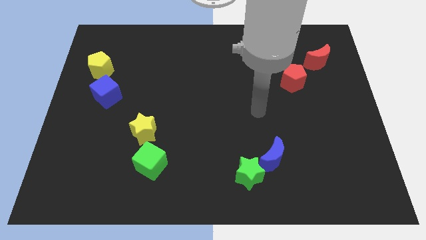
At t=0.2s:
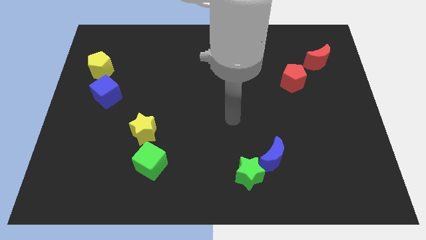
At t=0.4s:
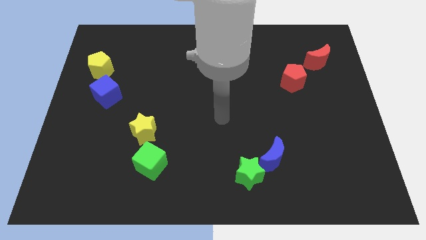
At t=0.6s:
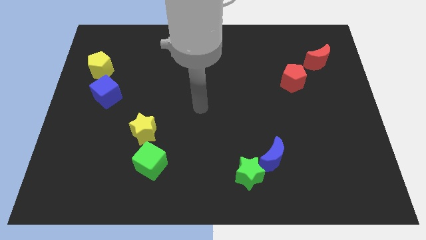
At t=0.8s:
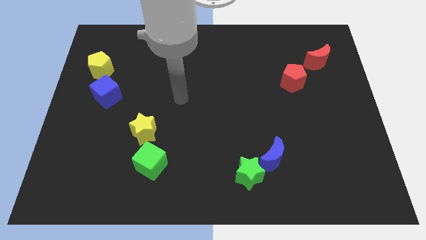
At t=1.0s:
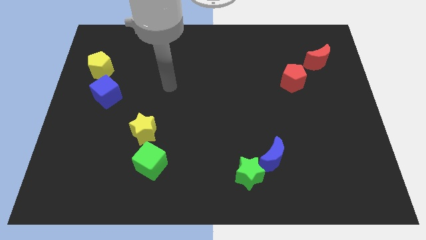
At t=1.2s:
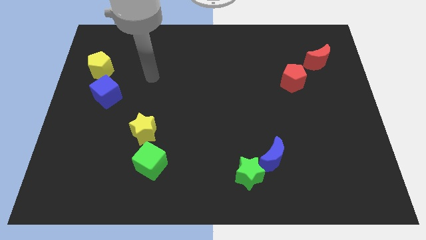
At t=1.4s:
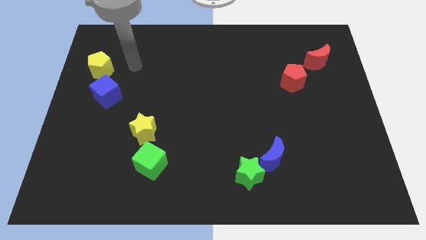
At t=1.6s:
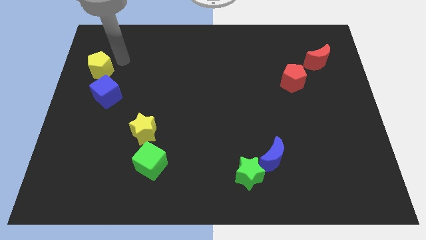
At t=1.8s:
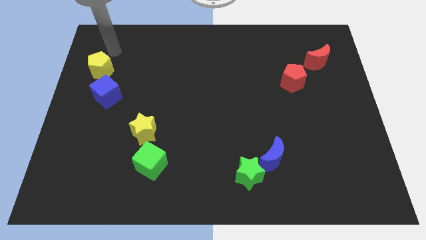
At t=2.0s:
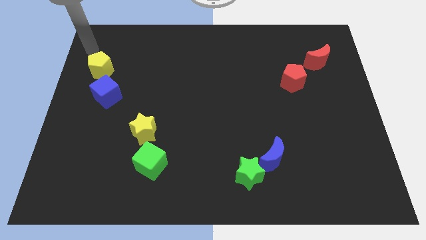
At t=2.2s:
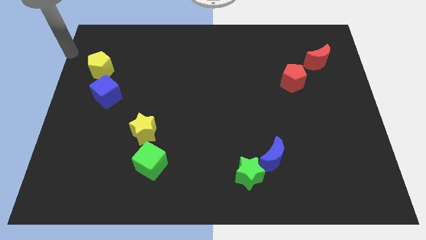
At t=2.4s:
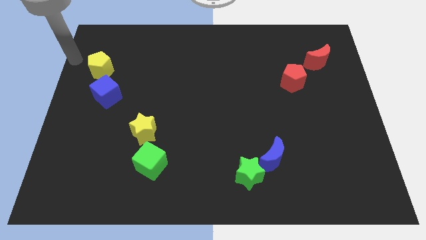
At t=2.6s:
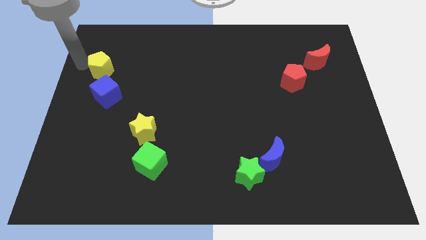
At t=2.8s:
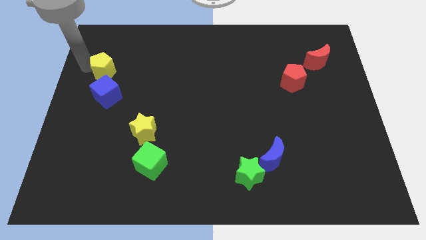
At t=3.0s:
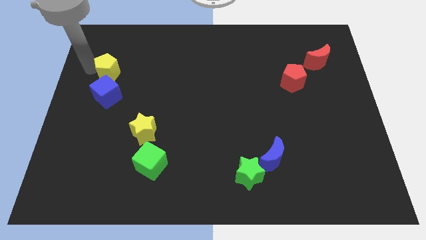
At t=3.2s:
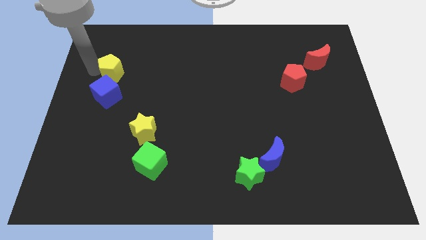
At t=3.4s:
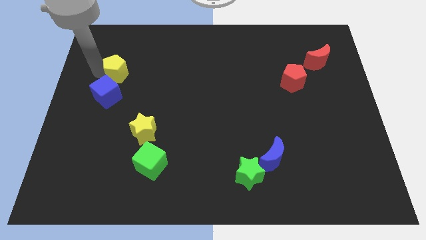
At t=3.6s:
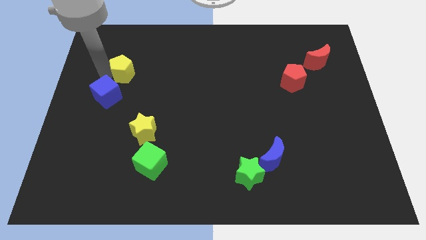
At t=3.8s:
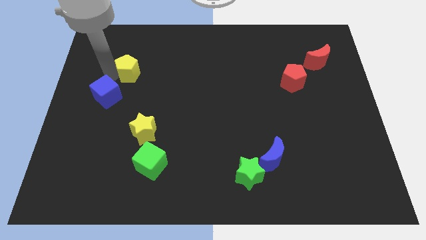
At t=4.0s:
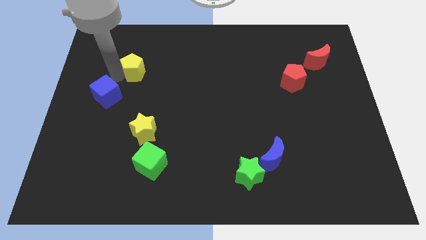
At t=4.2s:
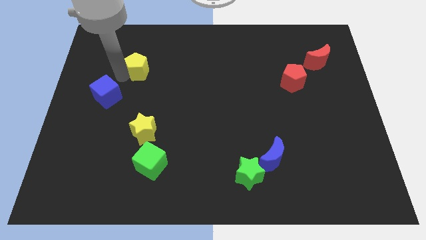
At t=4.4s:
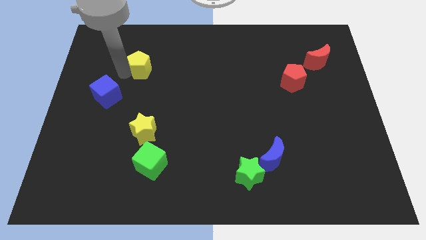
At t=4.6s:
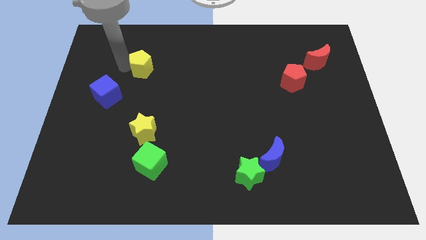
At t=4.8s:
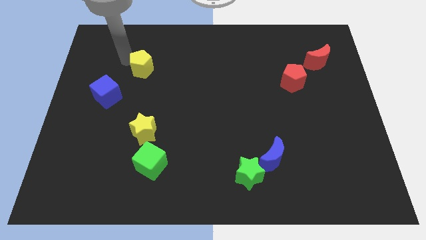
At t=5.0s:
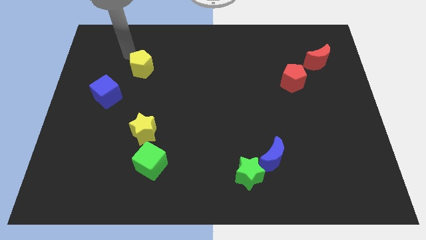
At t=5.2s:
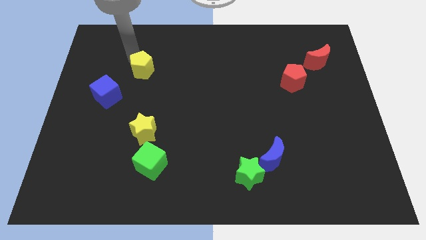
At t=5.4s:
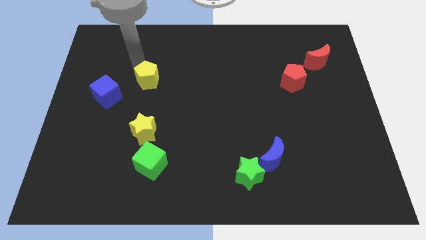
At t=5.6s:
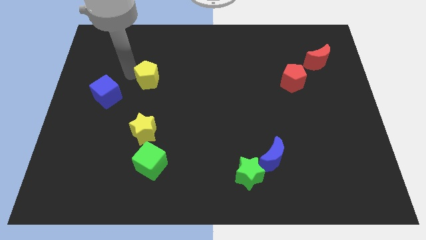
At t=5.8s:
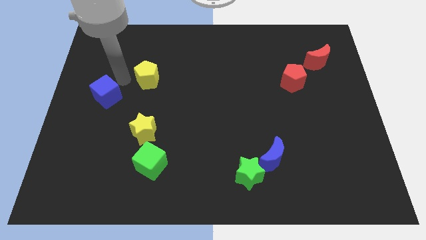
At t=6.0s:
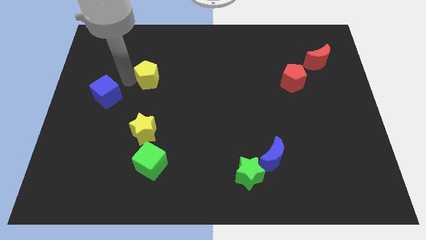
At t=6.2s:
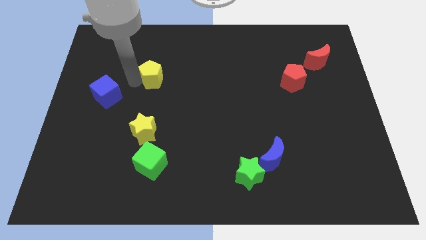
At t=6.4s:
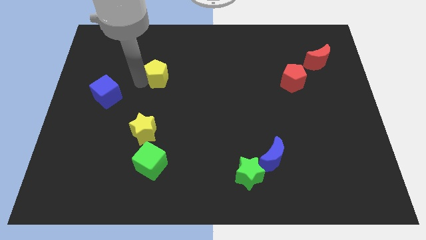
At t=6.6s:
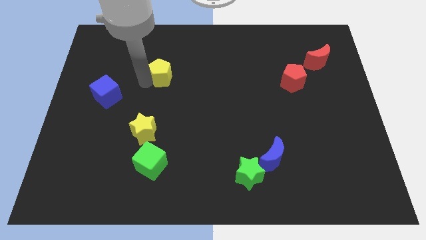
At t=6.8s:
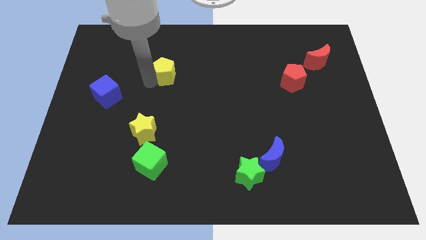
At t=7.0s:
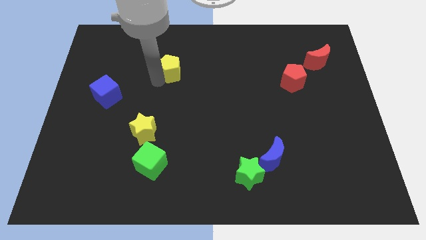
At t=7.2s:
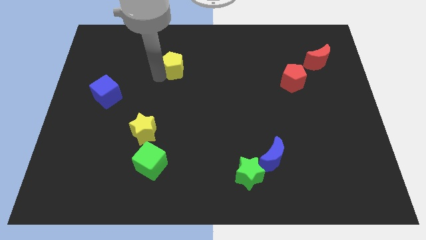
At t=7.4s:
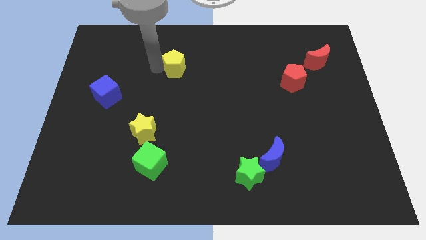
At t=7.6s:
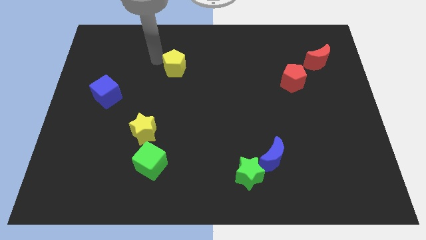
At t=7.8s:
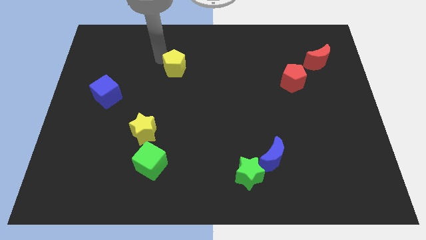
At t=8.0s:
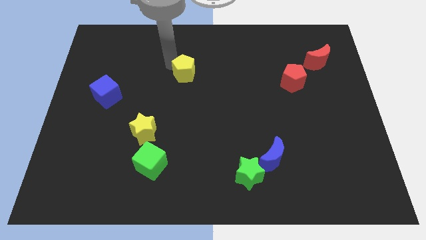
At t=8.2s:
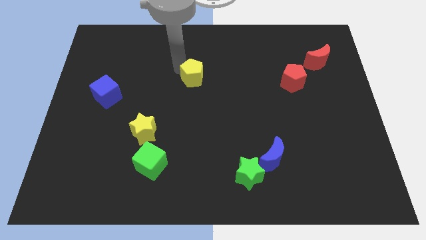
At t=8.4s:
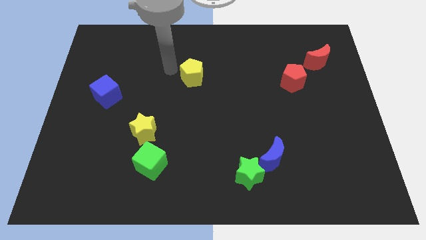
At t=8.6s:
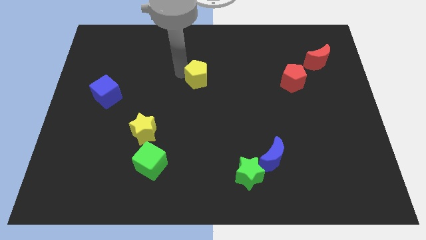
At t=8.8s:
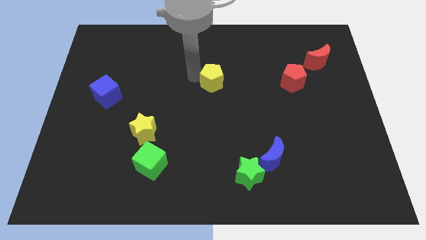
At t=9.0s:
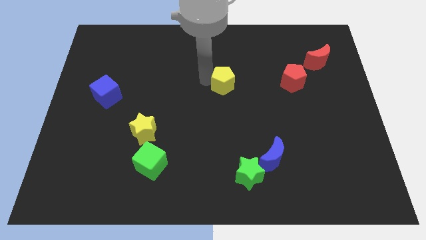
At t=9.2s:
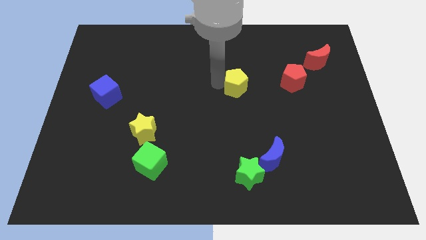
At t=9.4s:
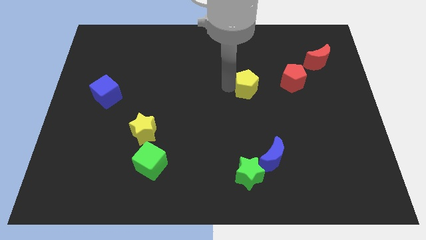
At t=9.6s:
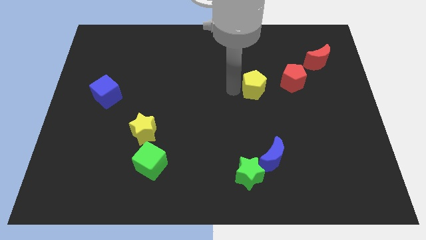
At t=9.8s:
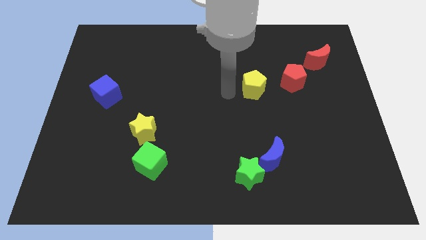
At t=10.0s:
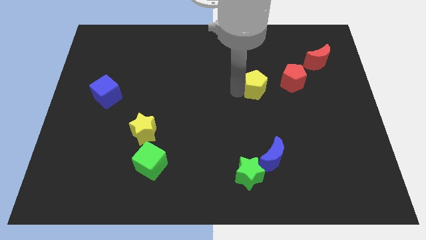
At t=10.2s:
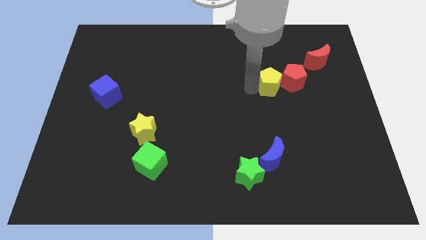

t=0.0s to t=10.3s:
slide the yellow pentagon to the red pentagon

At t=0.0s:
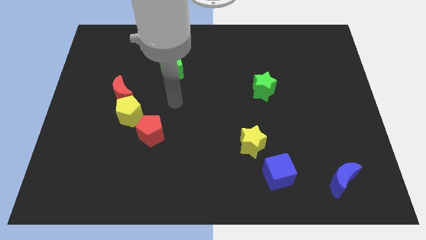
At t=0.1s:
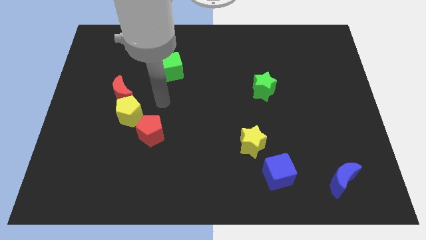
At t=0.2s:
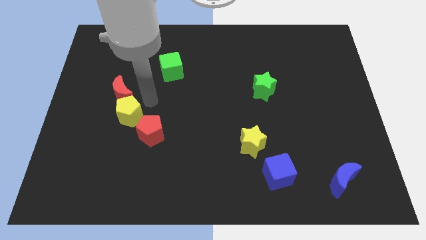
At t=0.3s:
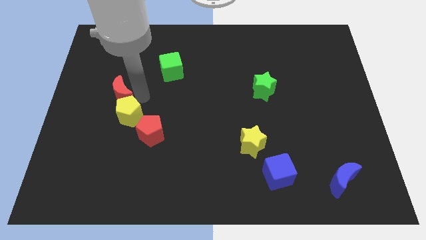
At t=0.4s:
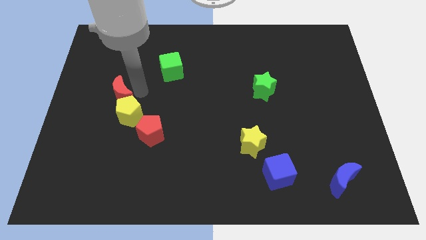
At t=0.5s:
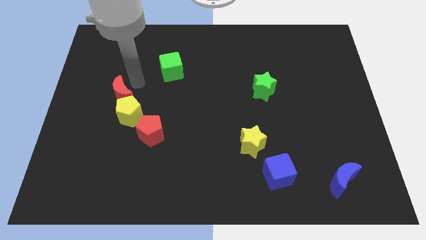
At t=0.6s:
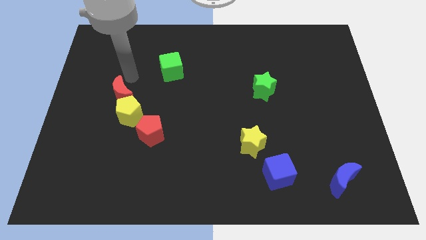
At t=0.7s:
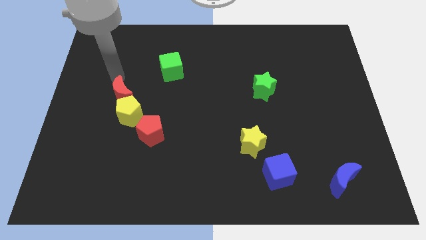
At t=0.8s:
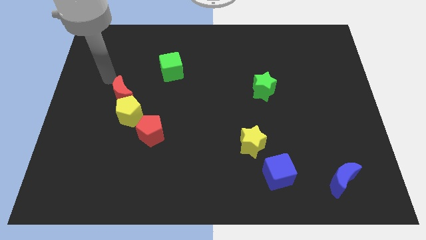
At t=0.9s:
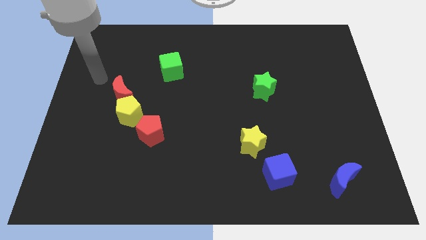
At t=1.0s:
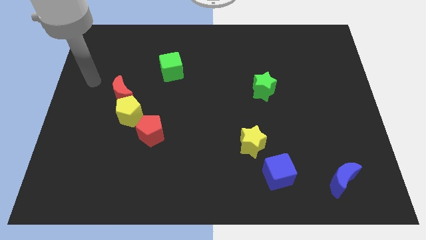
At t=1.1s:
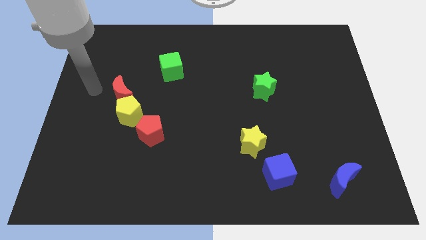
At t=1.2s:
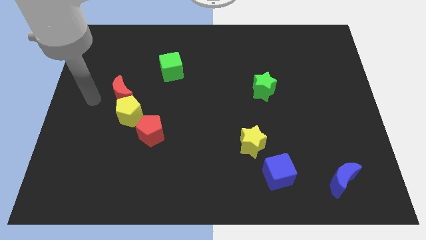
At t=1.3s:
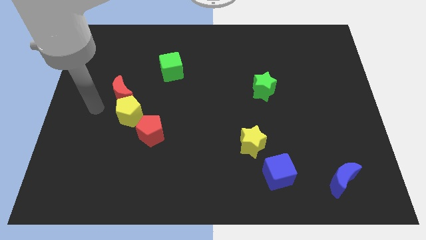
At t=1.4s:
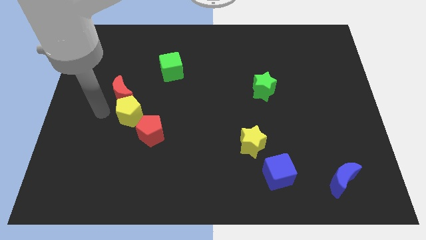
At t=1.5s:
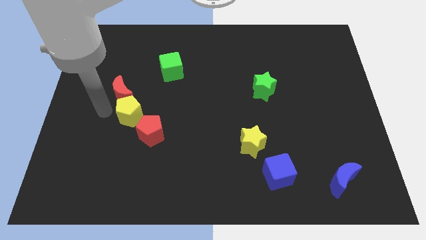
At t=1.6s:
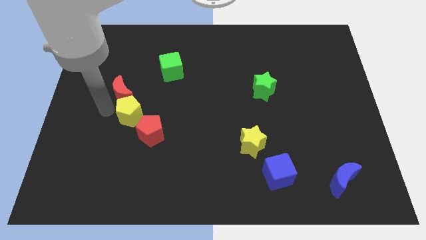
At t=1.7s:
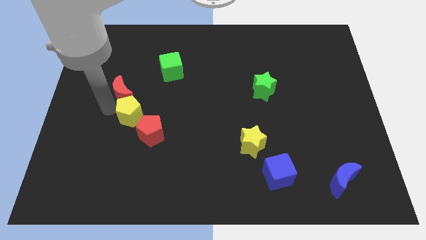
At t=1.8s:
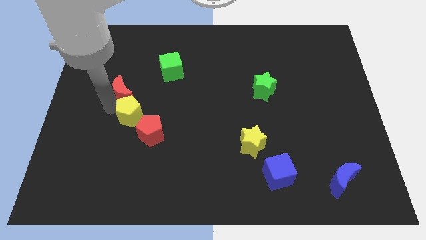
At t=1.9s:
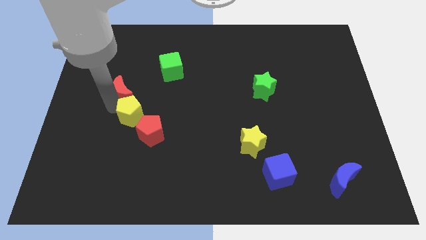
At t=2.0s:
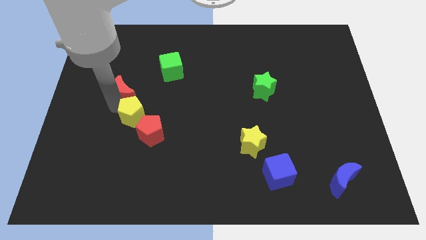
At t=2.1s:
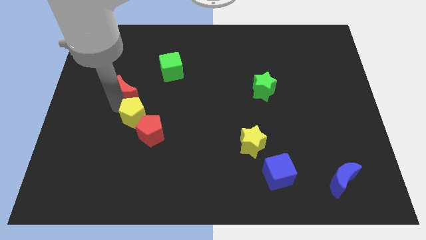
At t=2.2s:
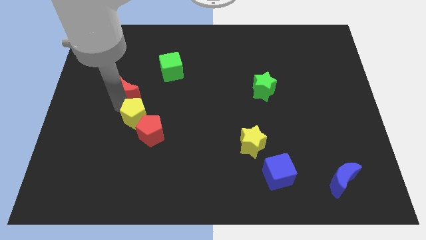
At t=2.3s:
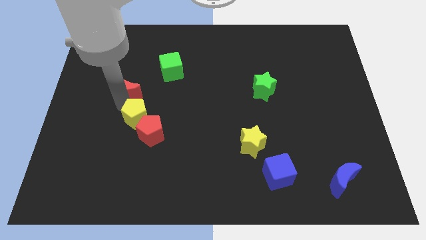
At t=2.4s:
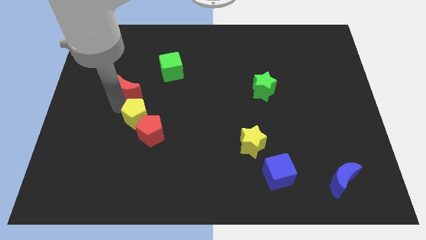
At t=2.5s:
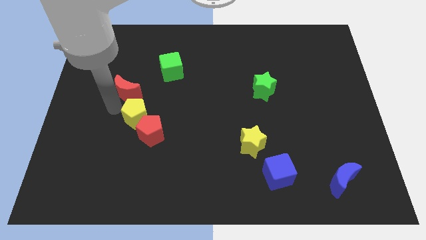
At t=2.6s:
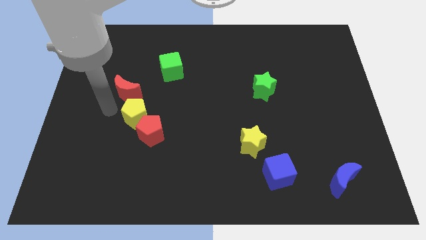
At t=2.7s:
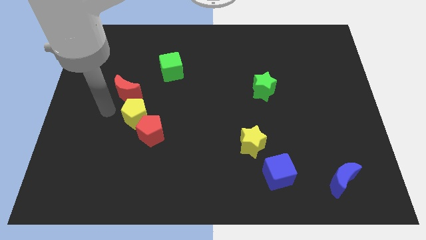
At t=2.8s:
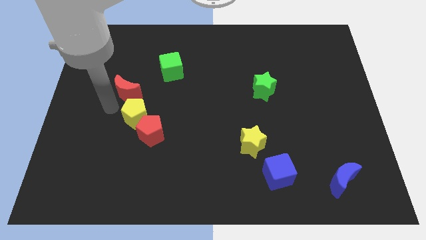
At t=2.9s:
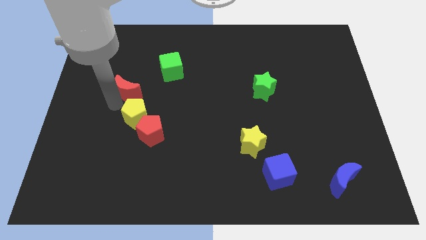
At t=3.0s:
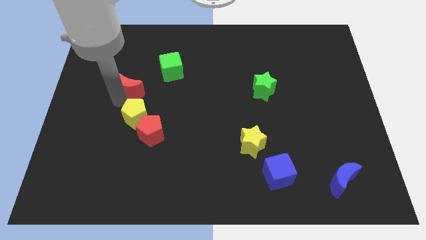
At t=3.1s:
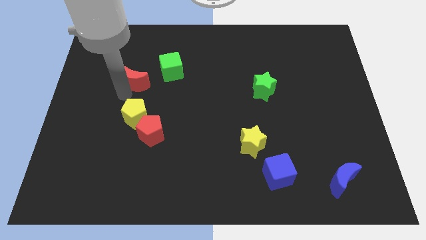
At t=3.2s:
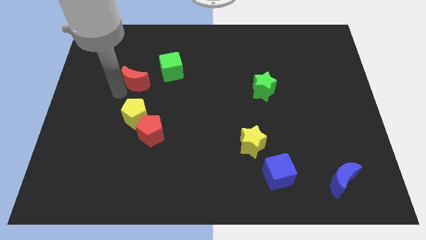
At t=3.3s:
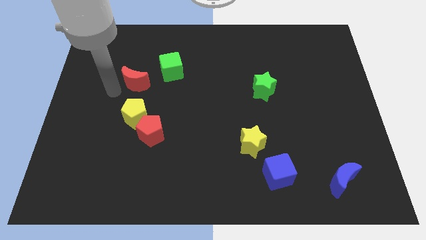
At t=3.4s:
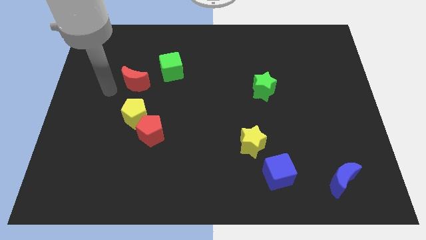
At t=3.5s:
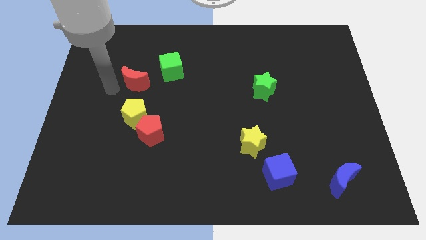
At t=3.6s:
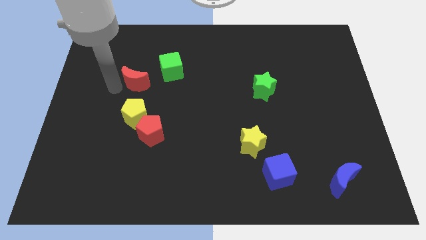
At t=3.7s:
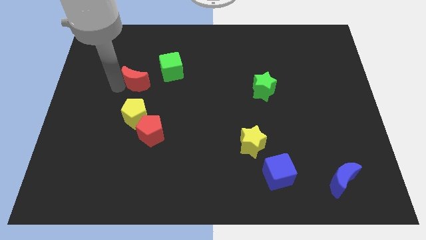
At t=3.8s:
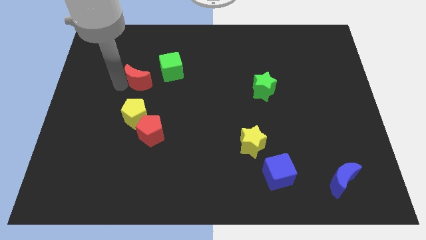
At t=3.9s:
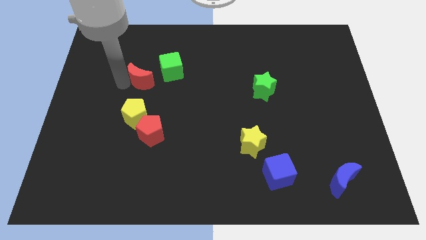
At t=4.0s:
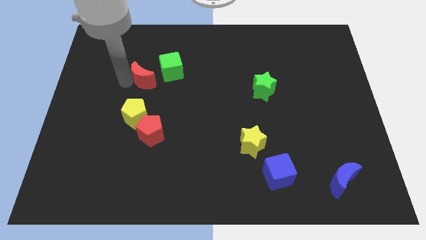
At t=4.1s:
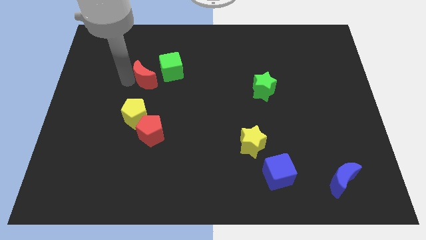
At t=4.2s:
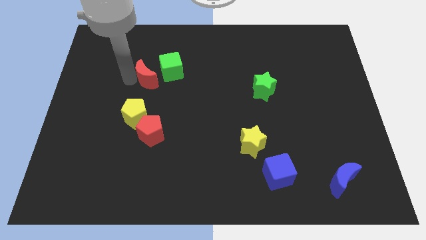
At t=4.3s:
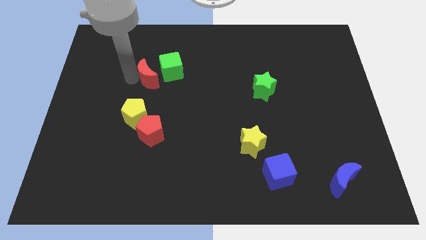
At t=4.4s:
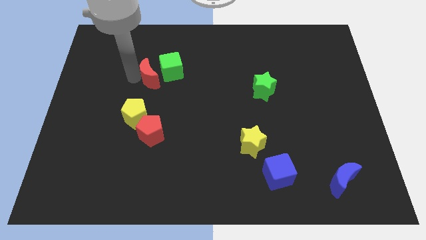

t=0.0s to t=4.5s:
slide the red moon to the green cube
